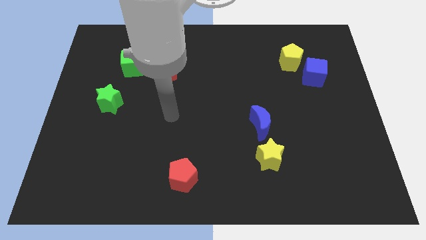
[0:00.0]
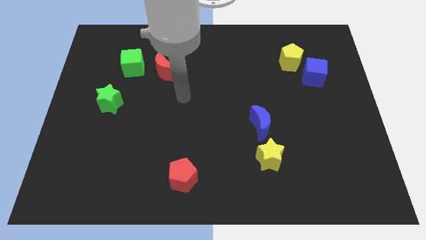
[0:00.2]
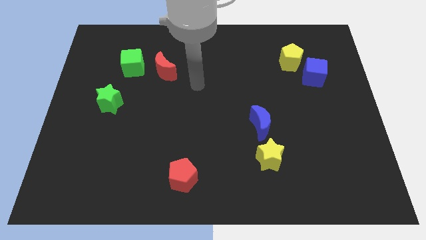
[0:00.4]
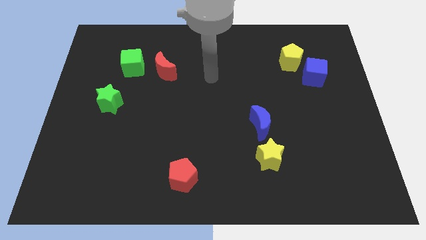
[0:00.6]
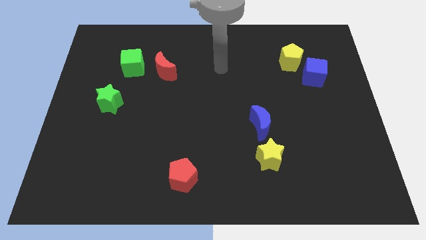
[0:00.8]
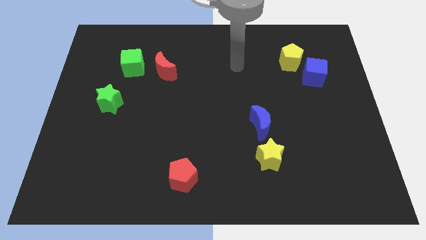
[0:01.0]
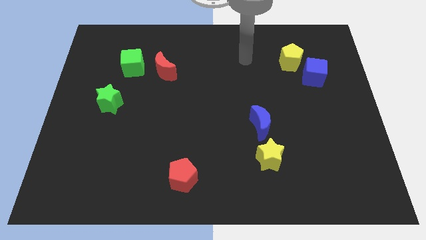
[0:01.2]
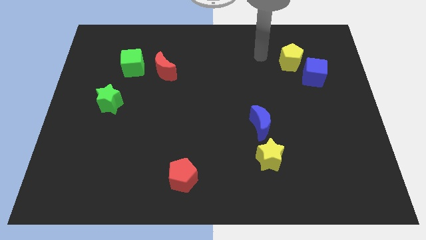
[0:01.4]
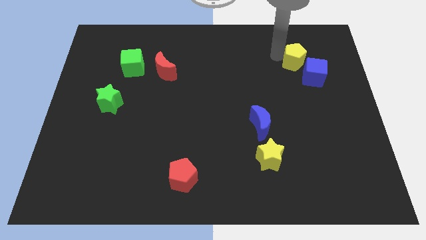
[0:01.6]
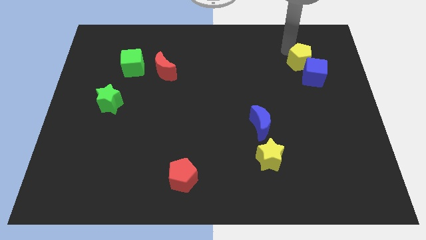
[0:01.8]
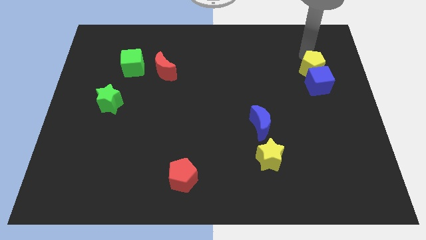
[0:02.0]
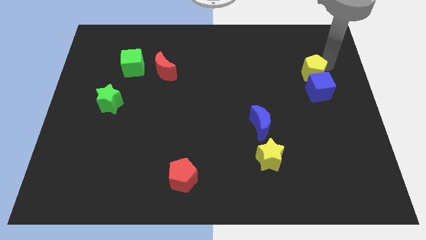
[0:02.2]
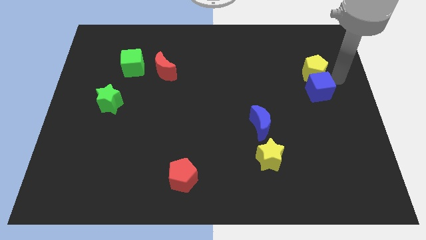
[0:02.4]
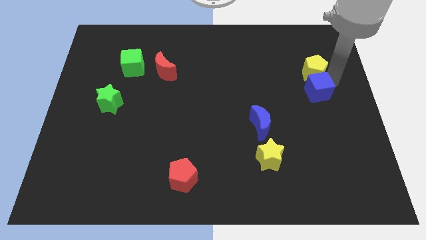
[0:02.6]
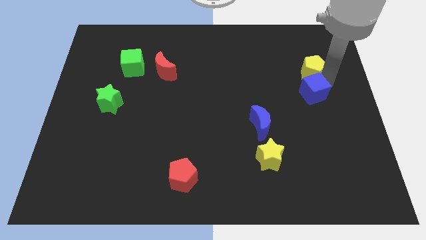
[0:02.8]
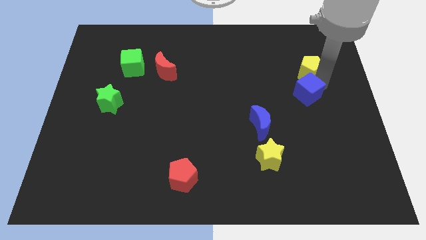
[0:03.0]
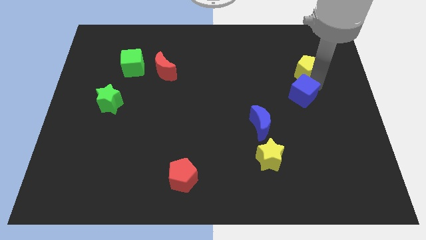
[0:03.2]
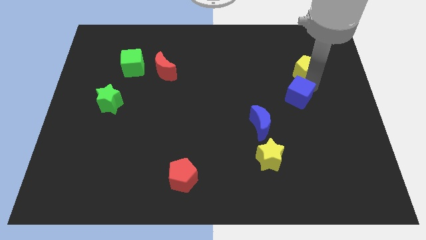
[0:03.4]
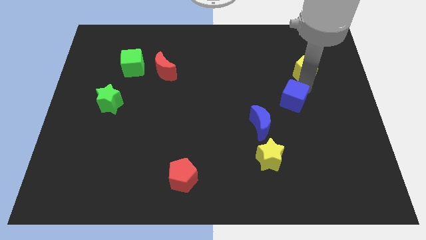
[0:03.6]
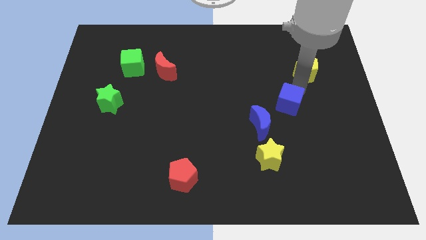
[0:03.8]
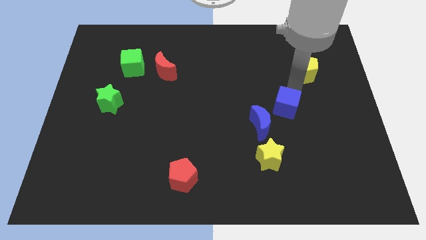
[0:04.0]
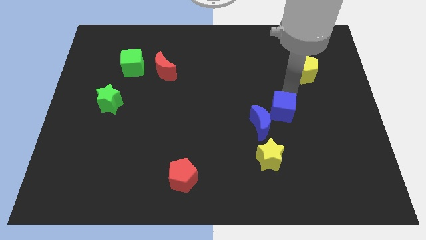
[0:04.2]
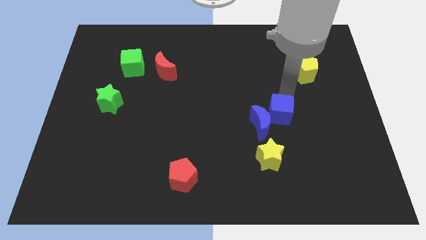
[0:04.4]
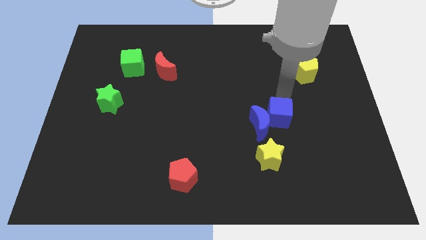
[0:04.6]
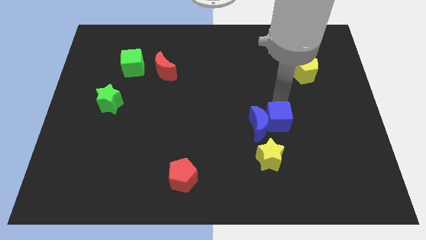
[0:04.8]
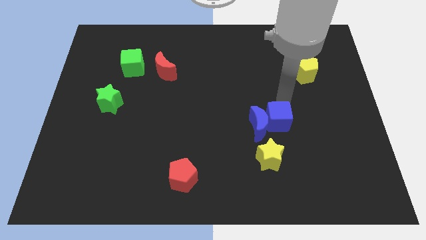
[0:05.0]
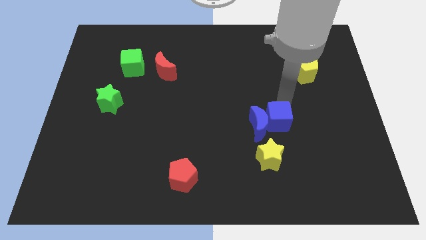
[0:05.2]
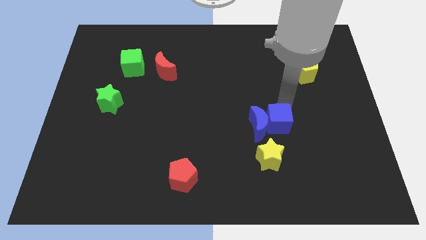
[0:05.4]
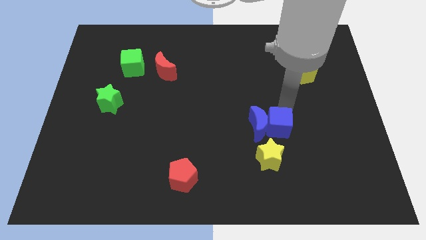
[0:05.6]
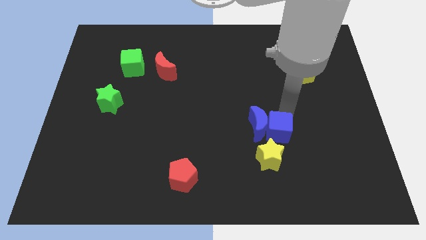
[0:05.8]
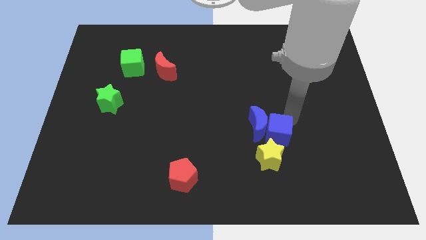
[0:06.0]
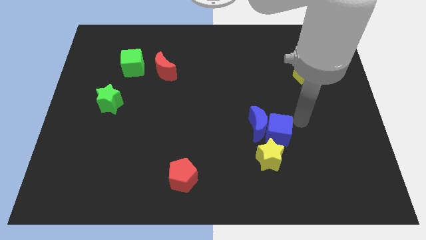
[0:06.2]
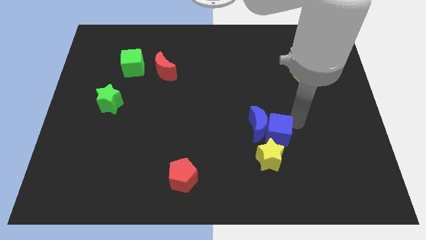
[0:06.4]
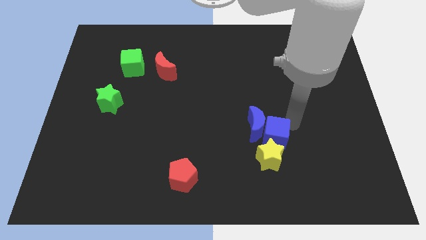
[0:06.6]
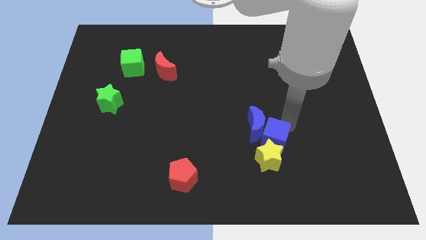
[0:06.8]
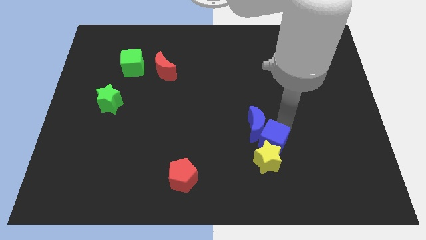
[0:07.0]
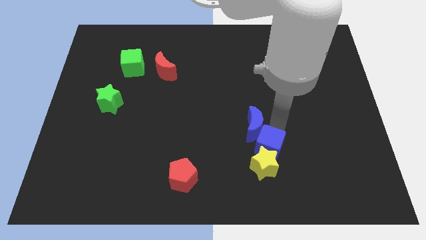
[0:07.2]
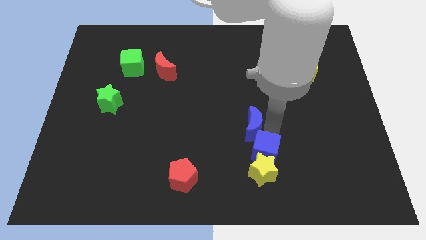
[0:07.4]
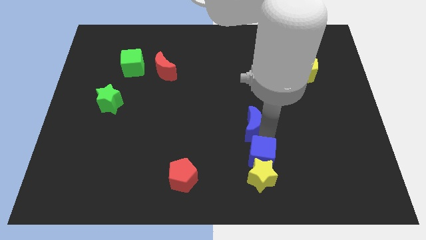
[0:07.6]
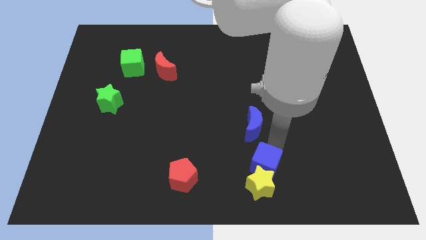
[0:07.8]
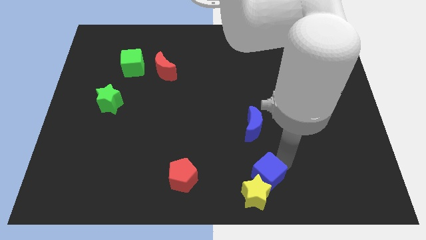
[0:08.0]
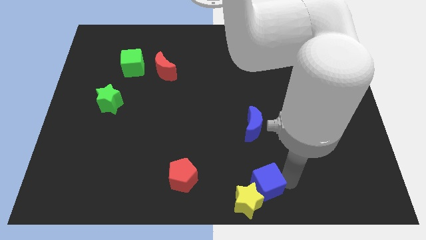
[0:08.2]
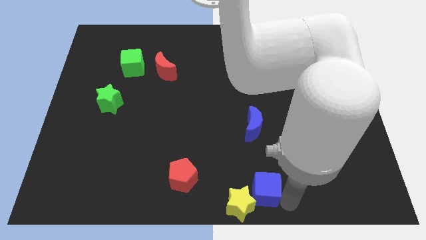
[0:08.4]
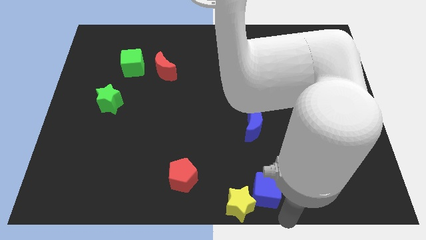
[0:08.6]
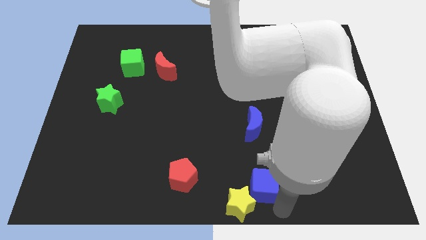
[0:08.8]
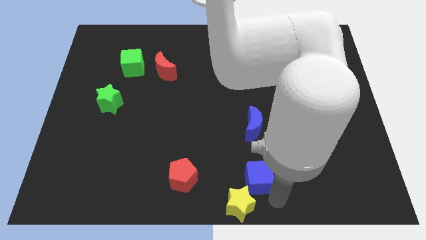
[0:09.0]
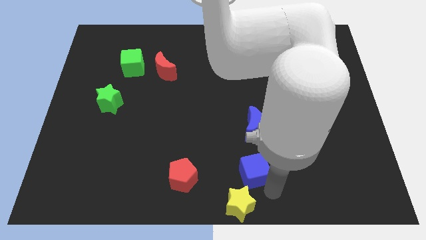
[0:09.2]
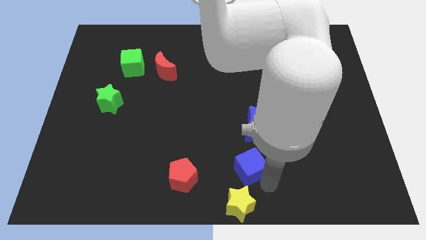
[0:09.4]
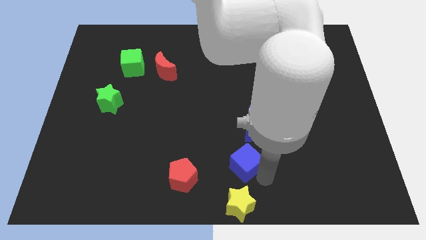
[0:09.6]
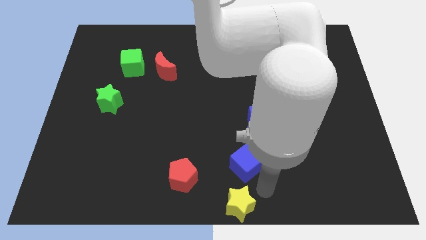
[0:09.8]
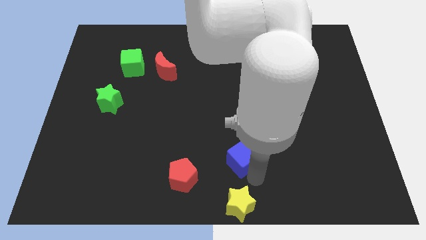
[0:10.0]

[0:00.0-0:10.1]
move the blue cube diagonally down and to the left of the blue moon

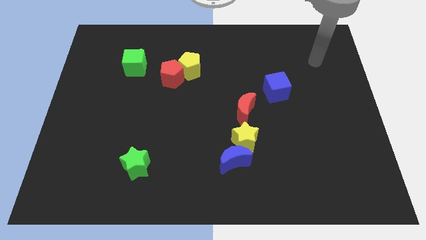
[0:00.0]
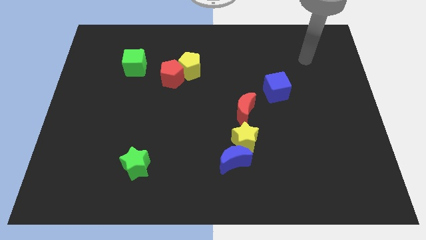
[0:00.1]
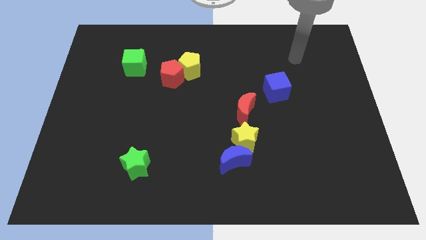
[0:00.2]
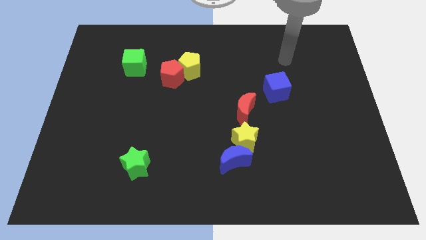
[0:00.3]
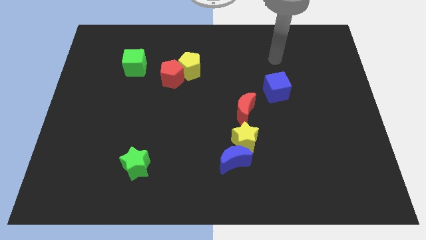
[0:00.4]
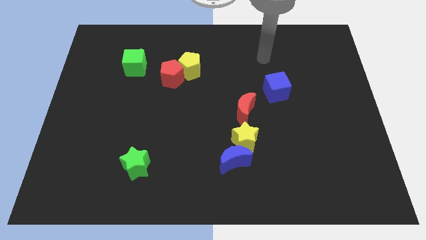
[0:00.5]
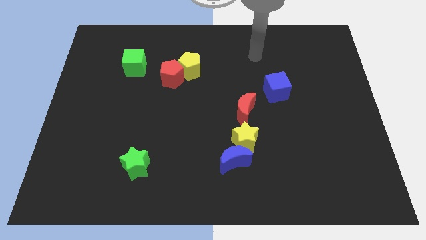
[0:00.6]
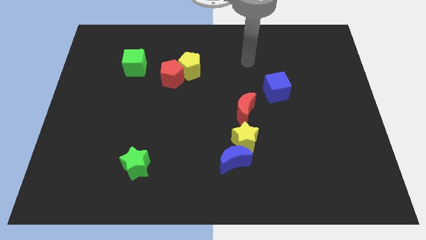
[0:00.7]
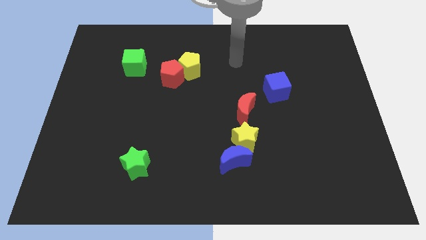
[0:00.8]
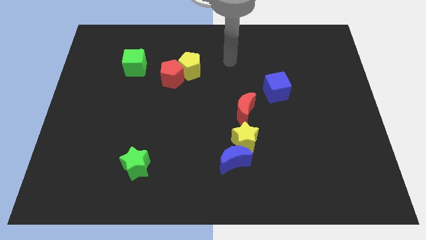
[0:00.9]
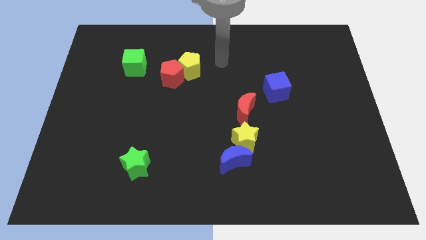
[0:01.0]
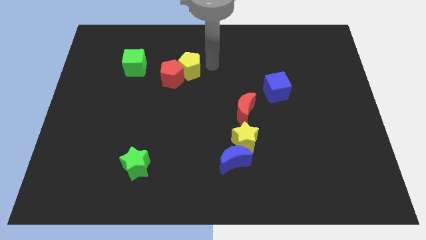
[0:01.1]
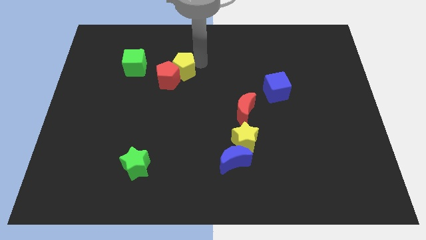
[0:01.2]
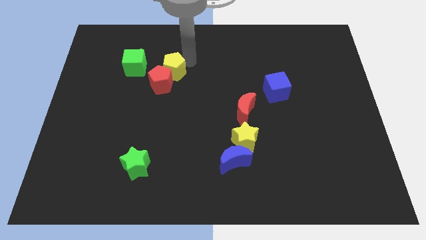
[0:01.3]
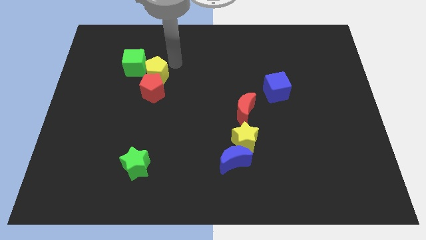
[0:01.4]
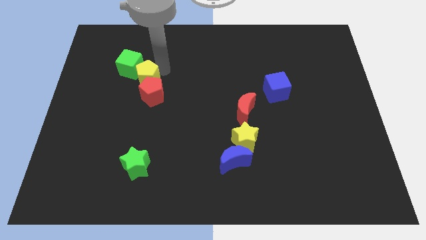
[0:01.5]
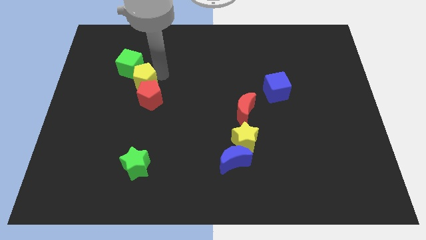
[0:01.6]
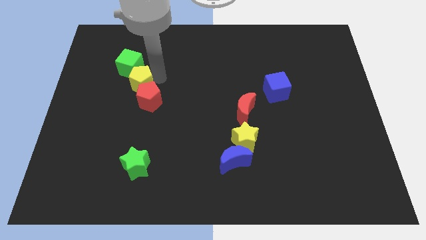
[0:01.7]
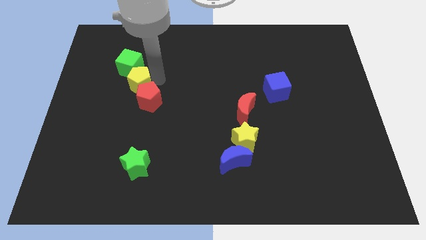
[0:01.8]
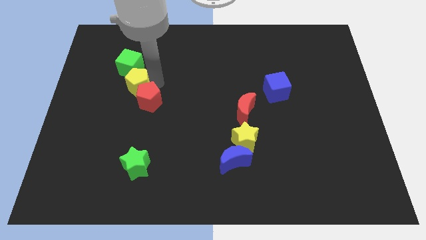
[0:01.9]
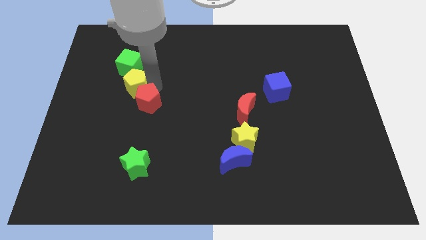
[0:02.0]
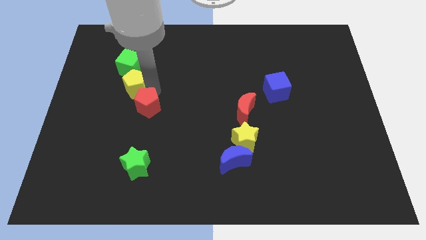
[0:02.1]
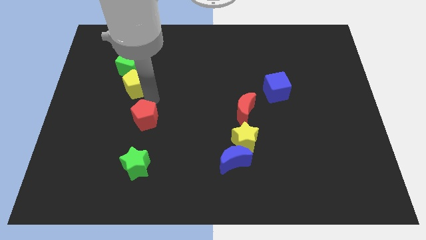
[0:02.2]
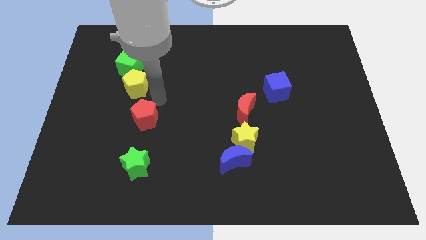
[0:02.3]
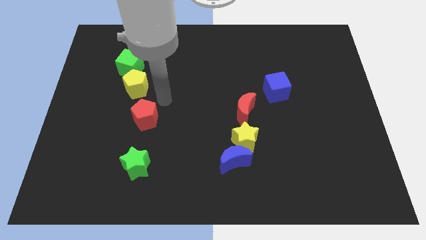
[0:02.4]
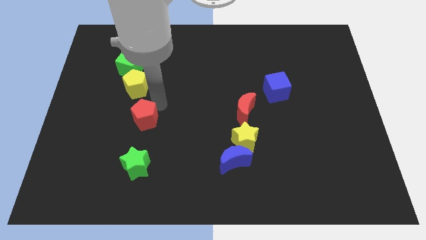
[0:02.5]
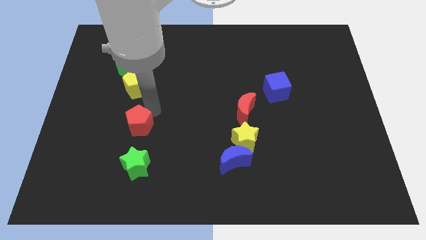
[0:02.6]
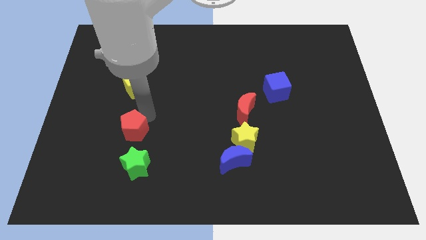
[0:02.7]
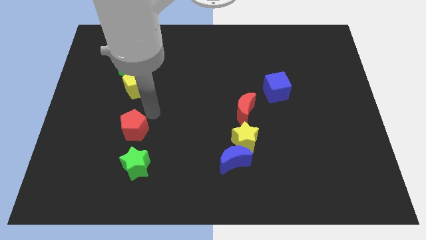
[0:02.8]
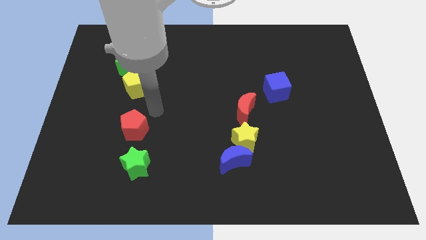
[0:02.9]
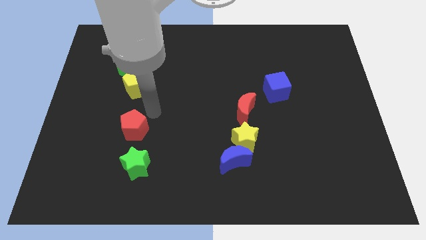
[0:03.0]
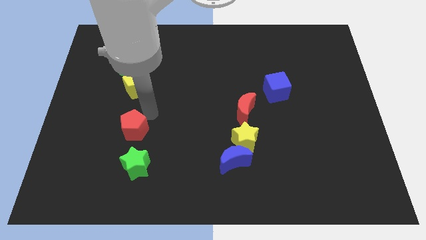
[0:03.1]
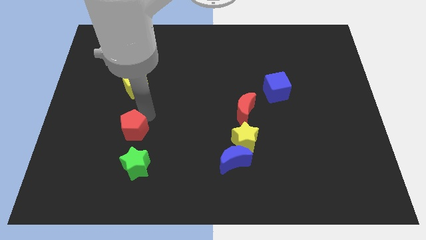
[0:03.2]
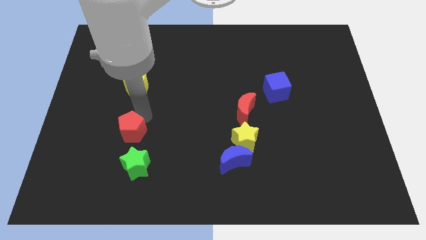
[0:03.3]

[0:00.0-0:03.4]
push the red pentagon to the top left side of the green star
